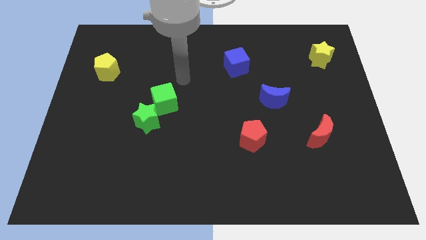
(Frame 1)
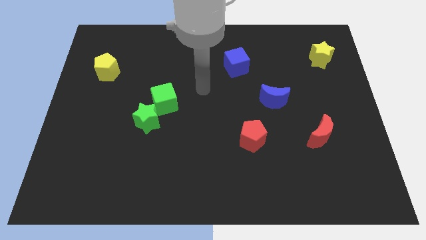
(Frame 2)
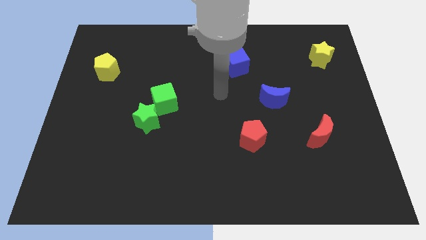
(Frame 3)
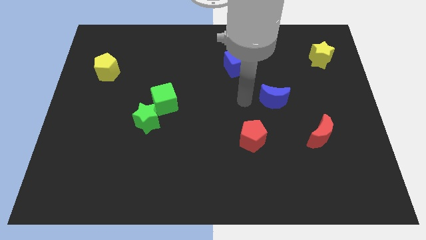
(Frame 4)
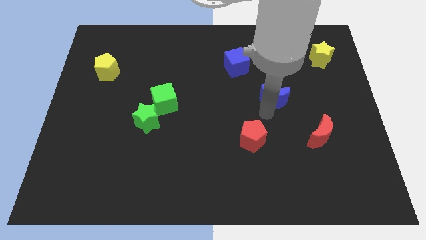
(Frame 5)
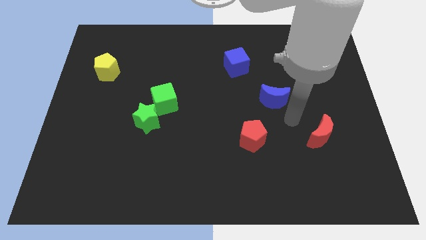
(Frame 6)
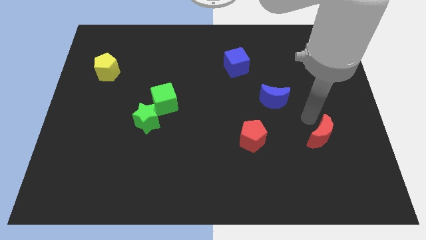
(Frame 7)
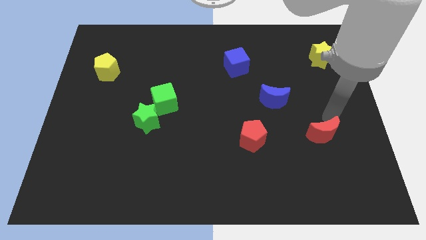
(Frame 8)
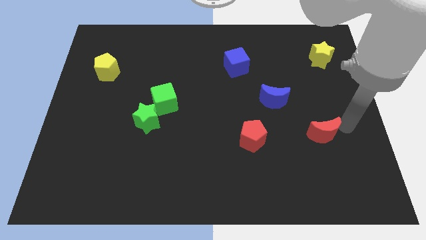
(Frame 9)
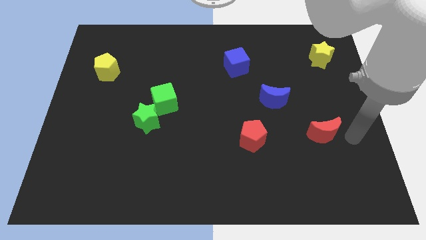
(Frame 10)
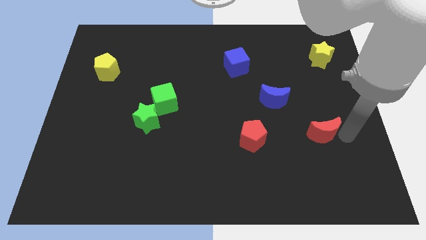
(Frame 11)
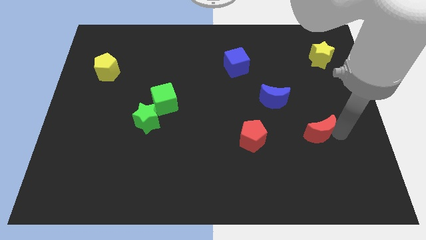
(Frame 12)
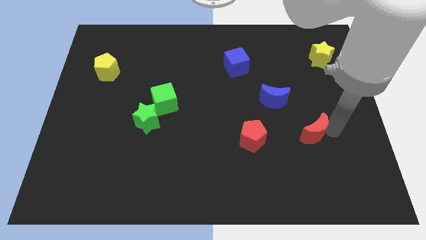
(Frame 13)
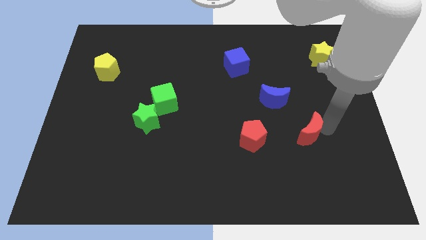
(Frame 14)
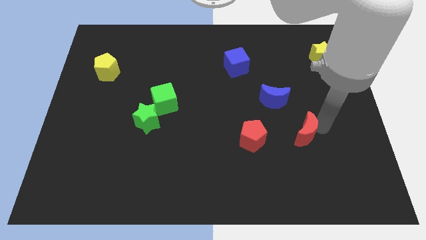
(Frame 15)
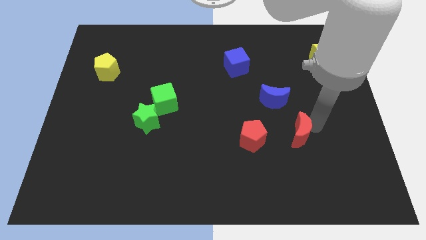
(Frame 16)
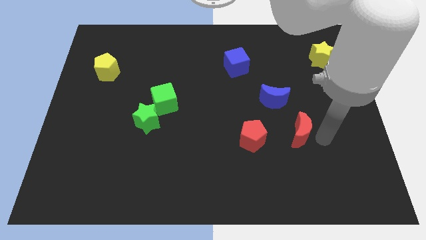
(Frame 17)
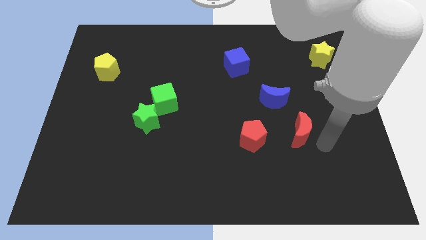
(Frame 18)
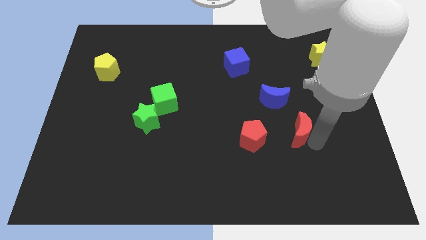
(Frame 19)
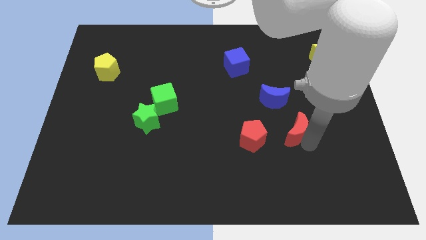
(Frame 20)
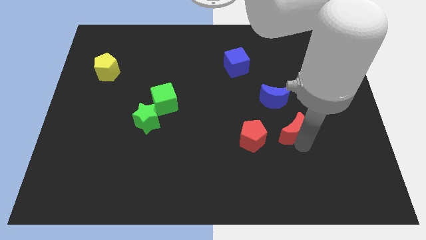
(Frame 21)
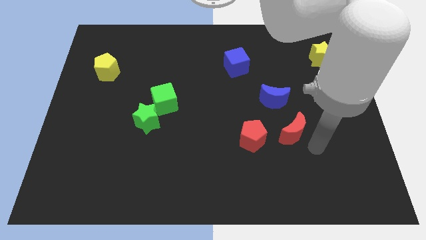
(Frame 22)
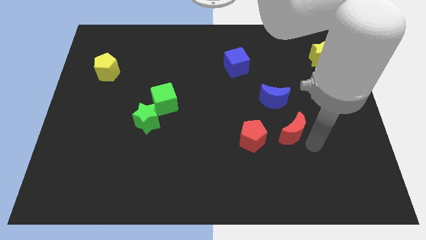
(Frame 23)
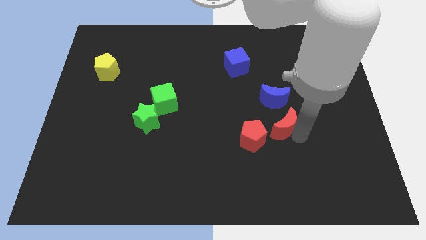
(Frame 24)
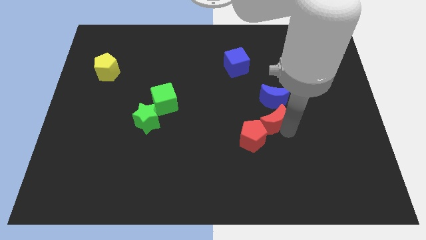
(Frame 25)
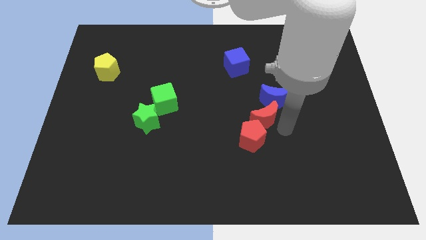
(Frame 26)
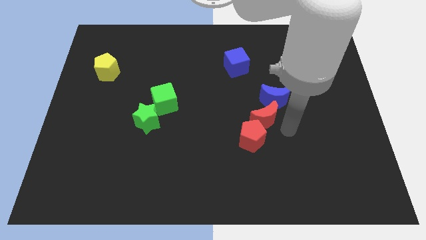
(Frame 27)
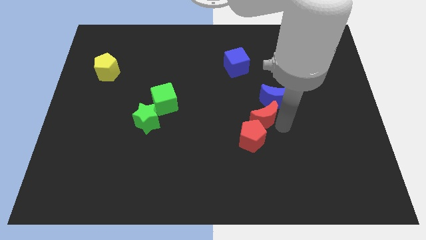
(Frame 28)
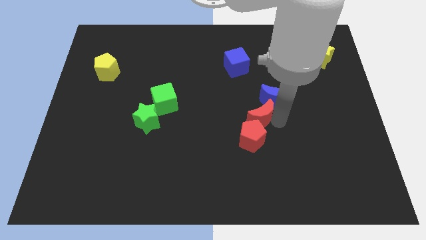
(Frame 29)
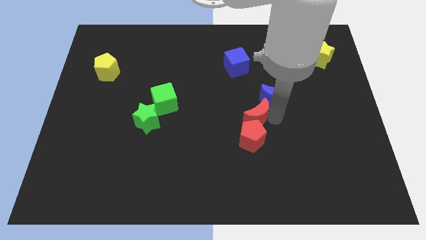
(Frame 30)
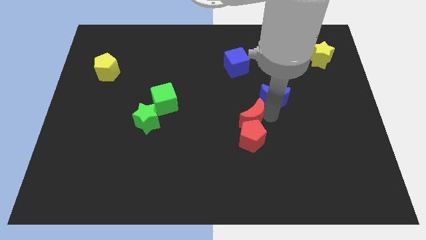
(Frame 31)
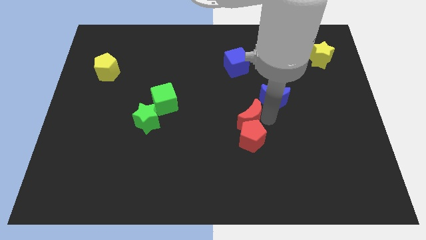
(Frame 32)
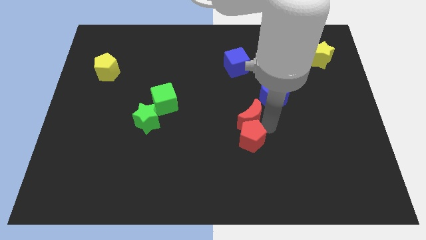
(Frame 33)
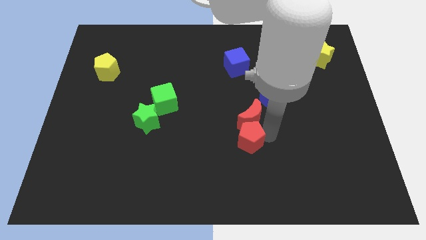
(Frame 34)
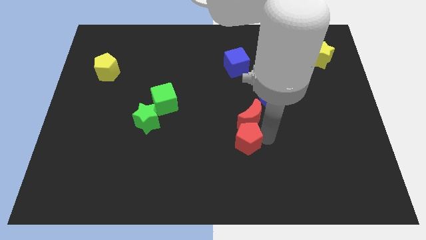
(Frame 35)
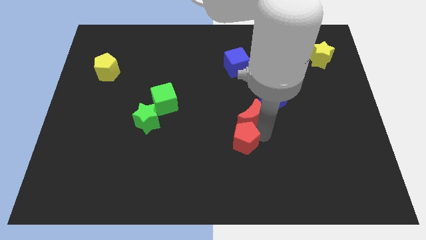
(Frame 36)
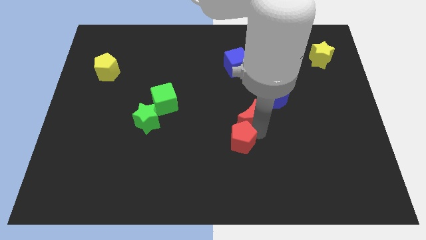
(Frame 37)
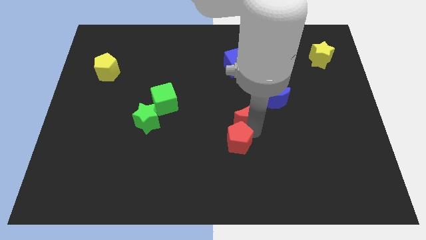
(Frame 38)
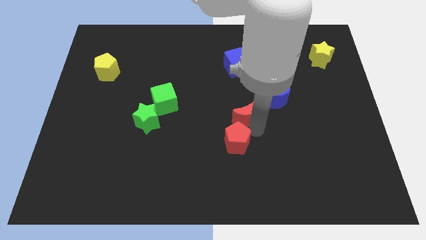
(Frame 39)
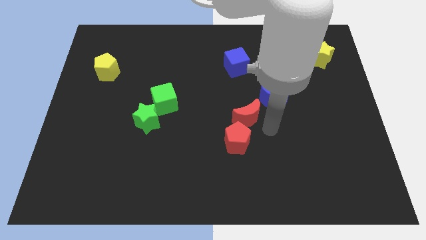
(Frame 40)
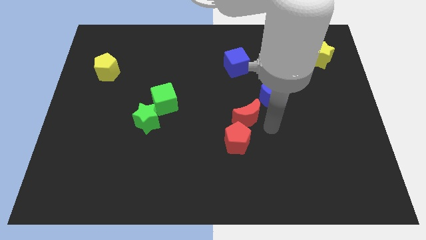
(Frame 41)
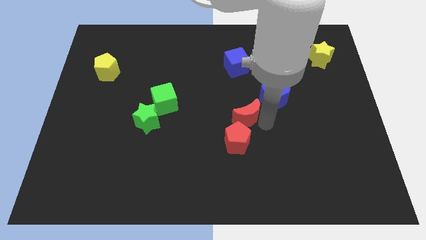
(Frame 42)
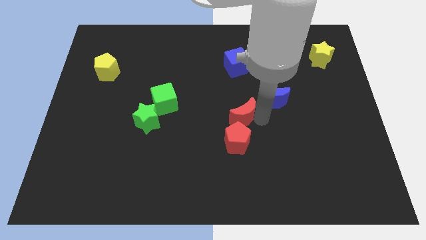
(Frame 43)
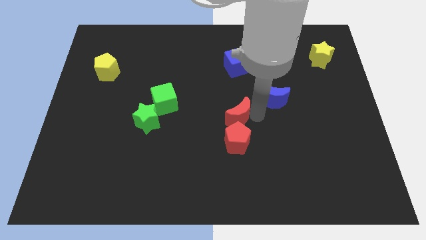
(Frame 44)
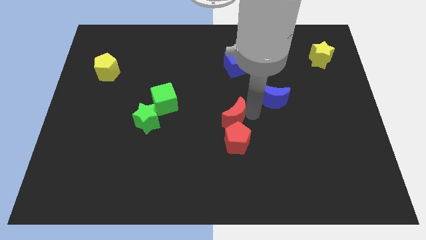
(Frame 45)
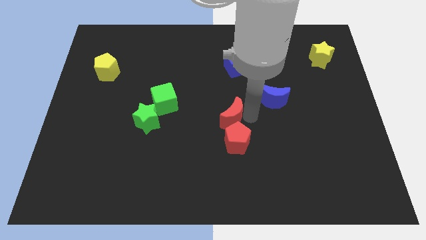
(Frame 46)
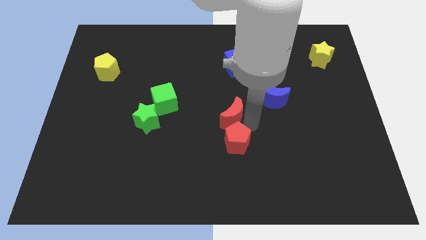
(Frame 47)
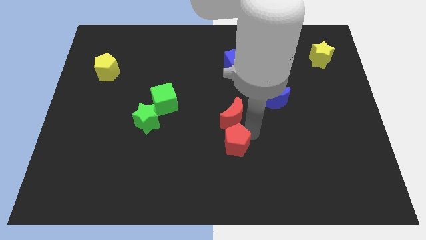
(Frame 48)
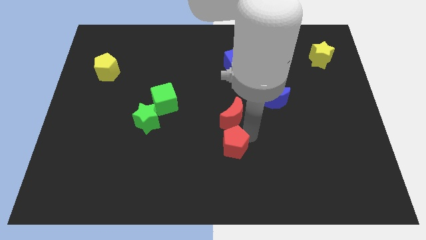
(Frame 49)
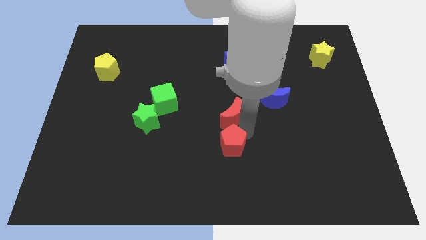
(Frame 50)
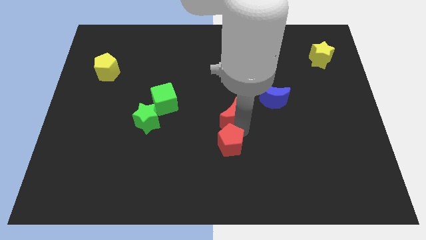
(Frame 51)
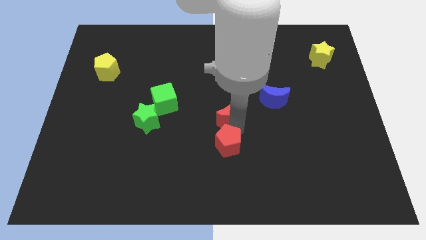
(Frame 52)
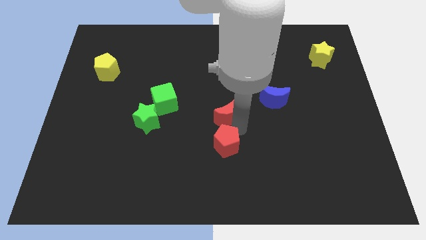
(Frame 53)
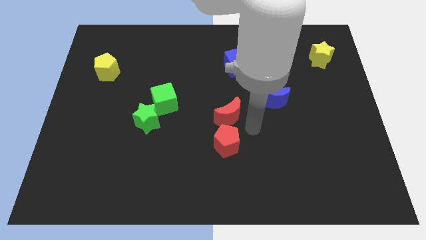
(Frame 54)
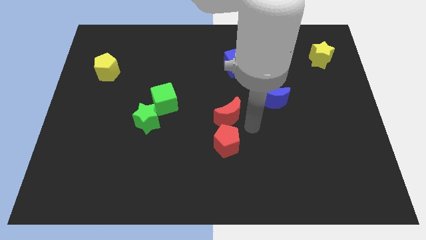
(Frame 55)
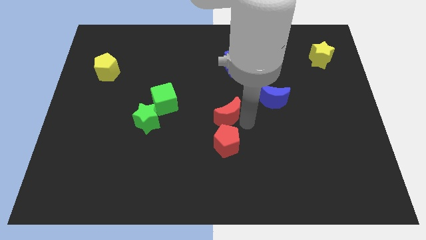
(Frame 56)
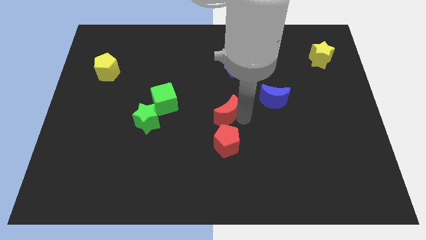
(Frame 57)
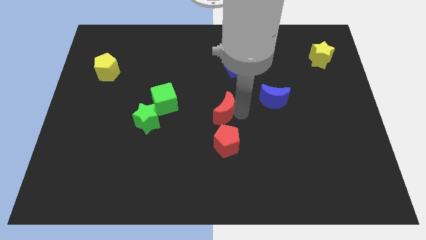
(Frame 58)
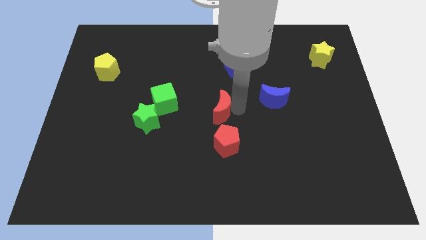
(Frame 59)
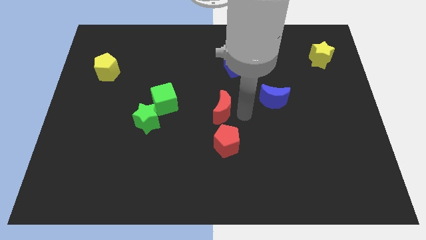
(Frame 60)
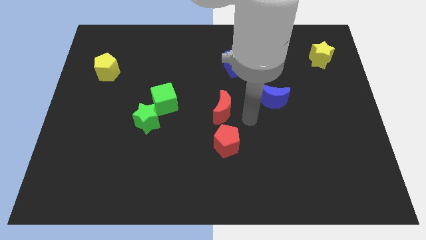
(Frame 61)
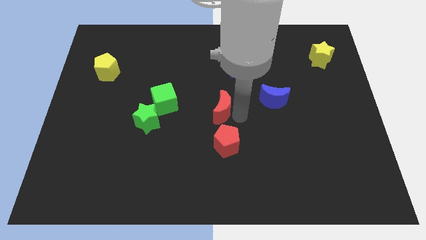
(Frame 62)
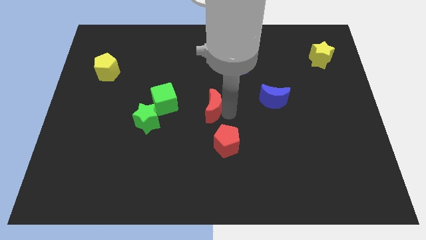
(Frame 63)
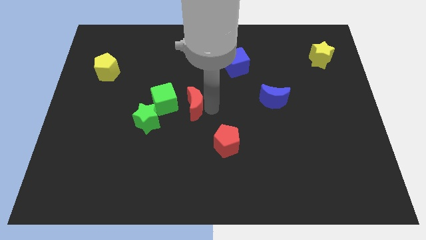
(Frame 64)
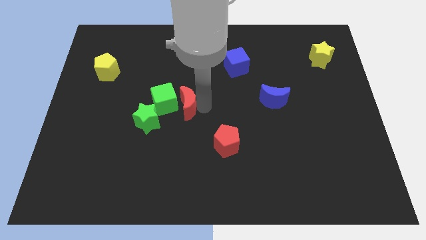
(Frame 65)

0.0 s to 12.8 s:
move the red moon close to the green cube

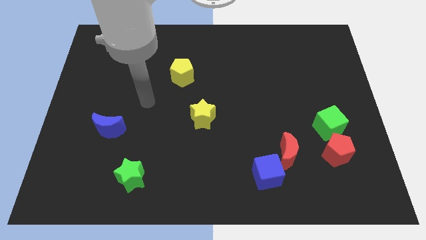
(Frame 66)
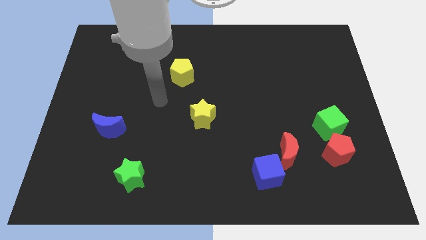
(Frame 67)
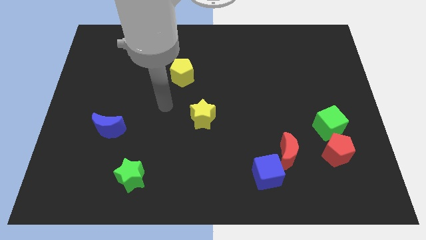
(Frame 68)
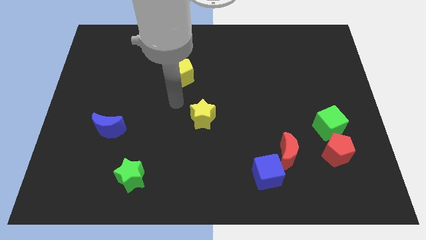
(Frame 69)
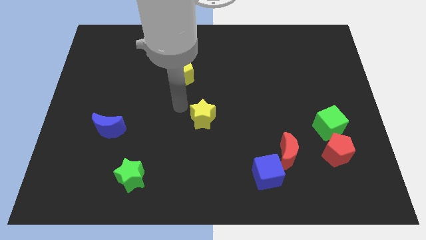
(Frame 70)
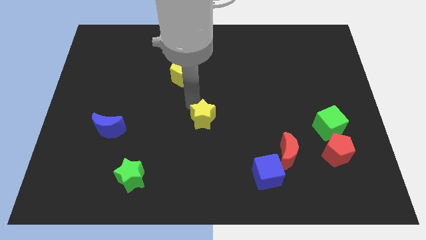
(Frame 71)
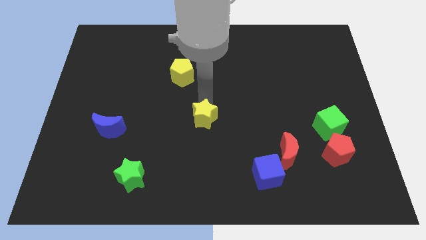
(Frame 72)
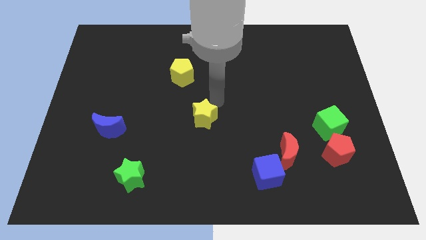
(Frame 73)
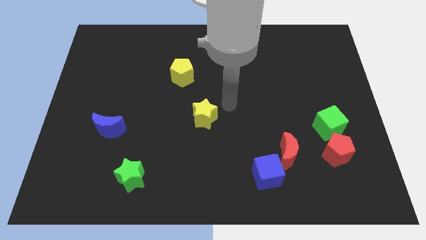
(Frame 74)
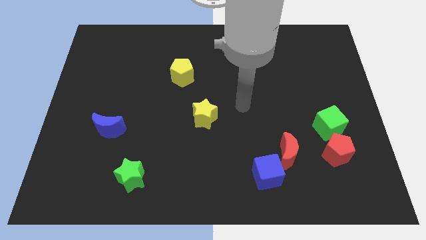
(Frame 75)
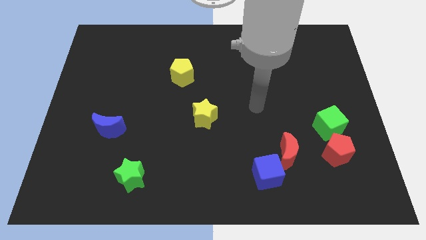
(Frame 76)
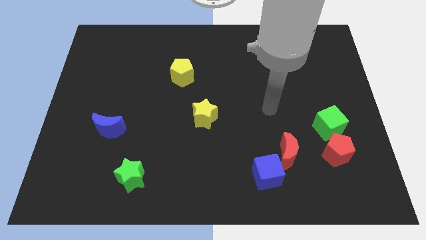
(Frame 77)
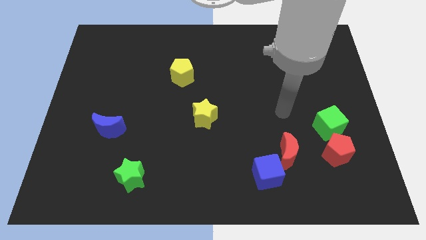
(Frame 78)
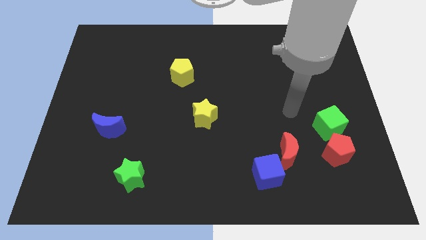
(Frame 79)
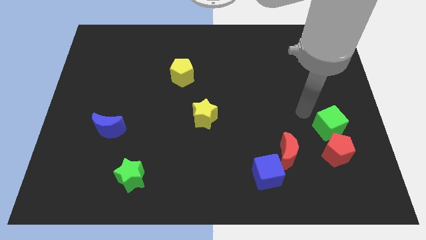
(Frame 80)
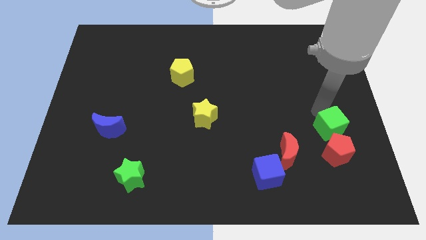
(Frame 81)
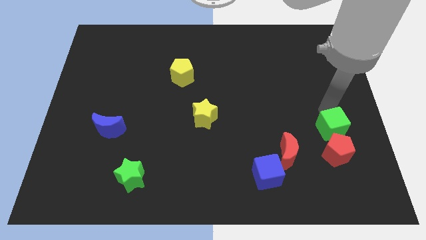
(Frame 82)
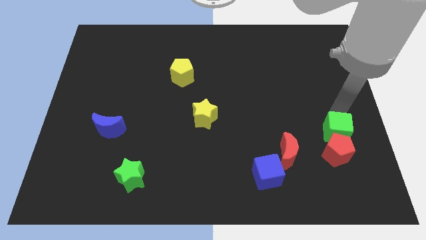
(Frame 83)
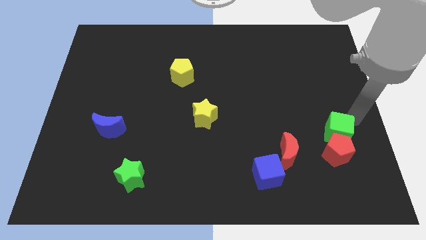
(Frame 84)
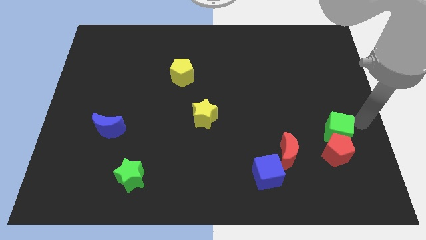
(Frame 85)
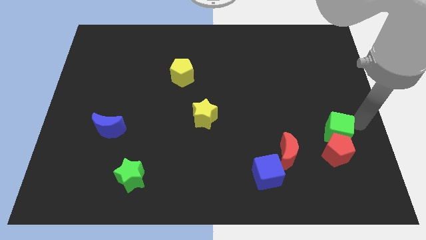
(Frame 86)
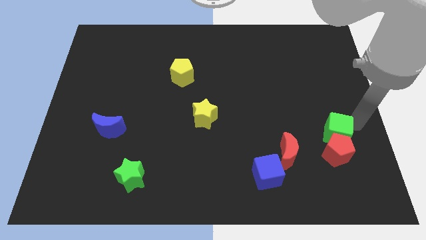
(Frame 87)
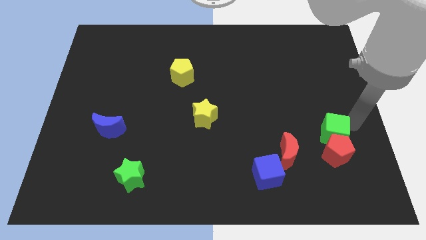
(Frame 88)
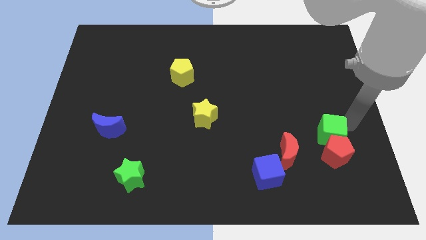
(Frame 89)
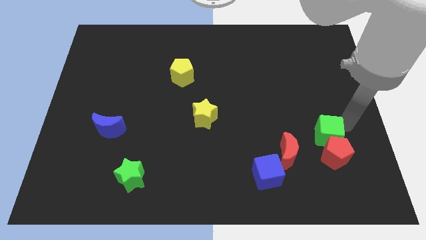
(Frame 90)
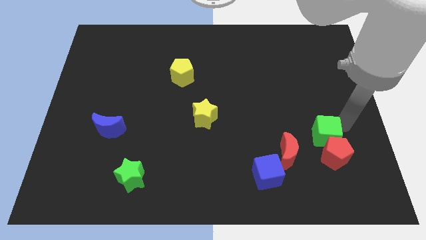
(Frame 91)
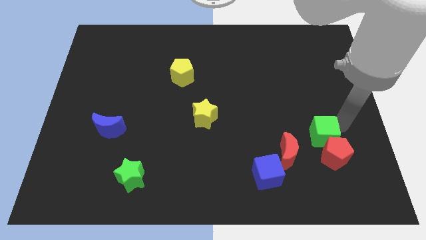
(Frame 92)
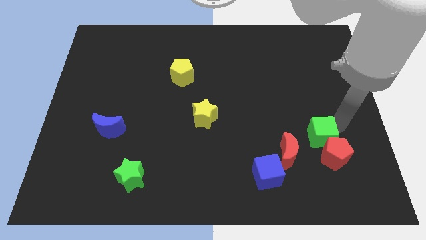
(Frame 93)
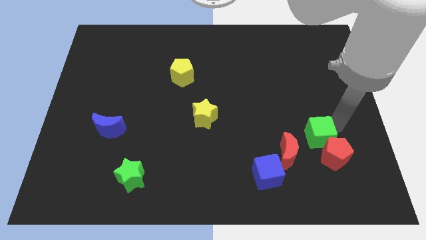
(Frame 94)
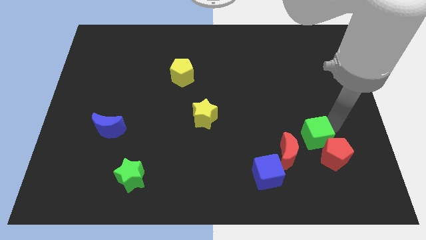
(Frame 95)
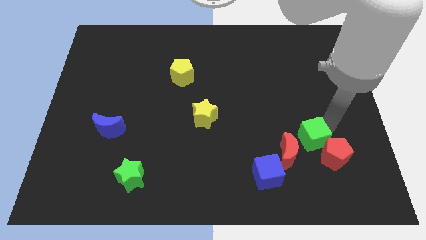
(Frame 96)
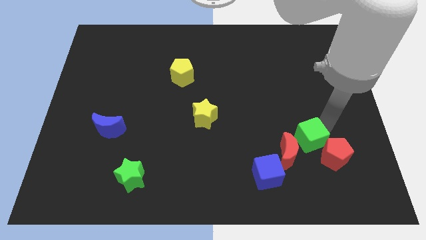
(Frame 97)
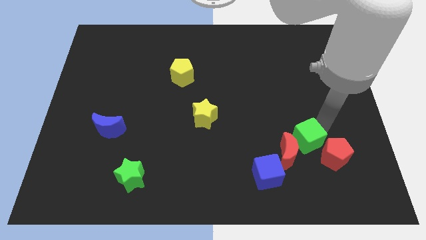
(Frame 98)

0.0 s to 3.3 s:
slide the green cube next to the red moon
